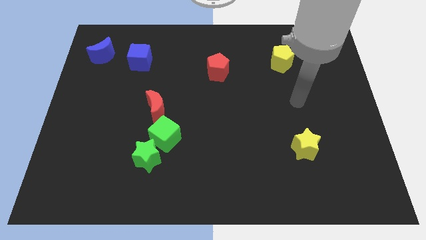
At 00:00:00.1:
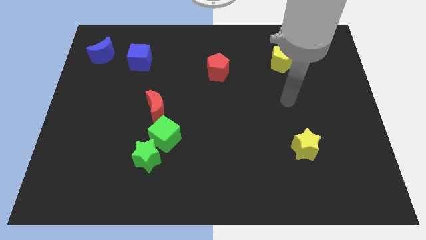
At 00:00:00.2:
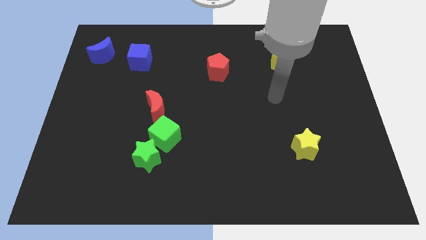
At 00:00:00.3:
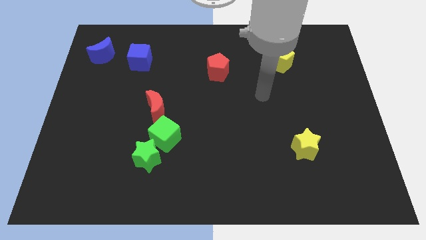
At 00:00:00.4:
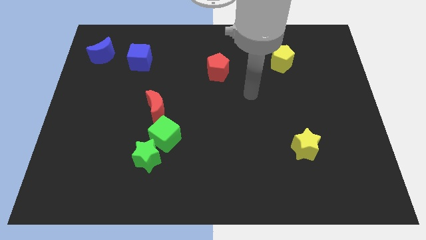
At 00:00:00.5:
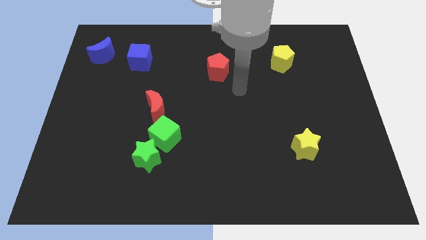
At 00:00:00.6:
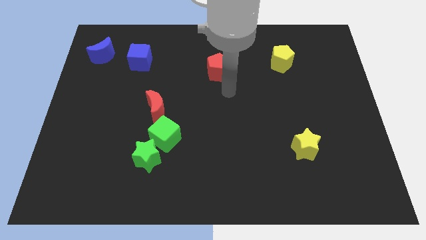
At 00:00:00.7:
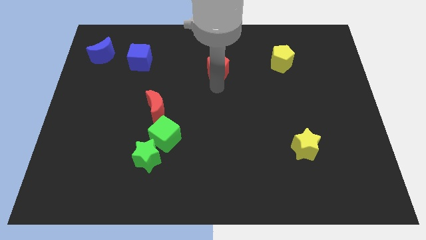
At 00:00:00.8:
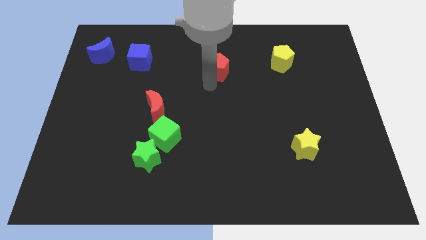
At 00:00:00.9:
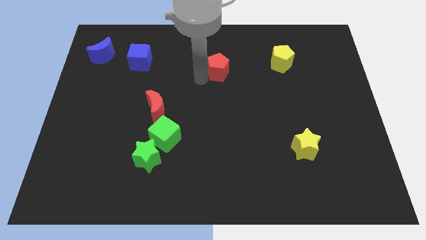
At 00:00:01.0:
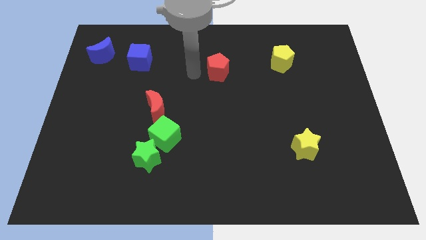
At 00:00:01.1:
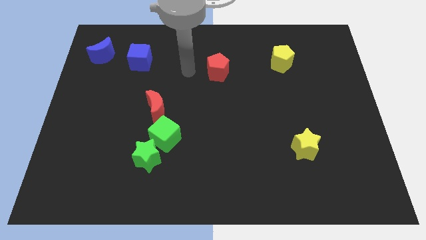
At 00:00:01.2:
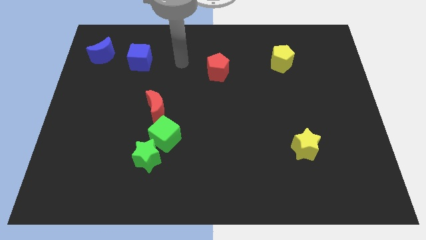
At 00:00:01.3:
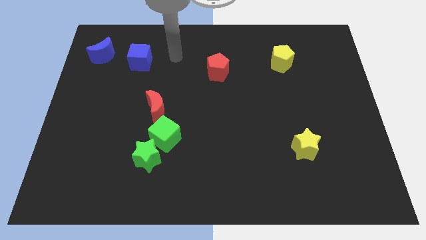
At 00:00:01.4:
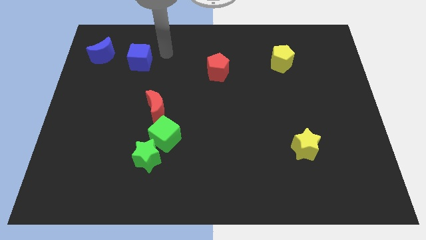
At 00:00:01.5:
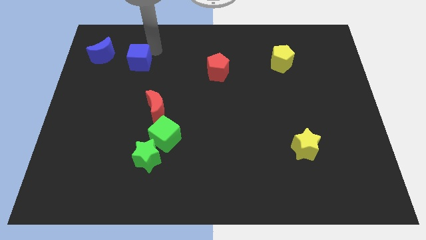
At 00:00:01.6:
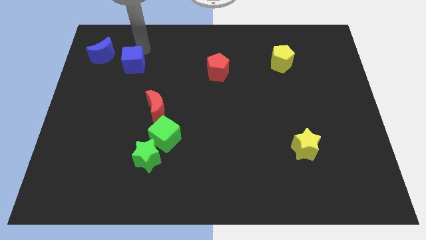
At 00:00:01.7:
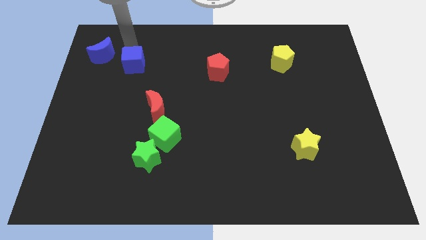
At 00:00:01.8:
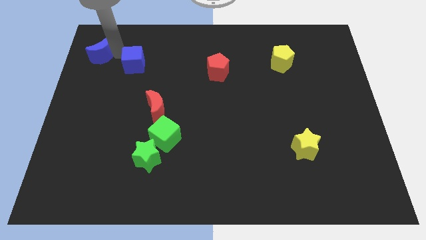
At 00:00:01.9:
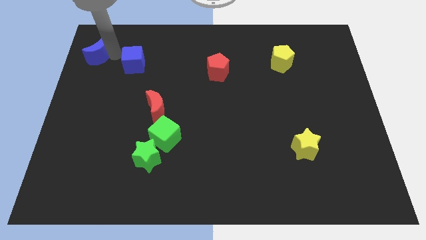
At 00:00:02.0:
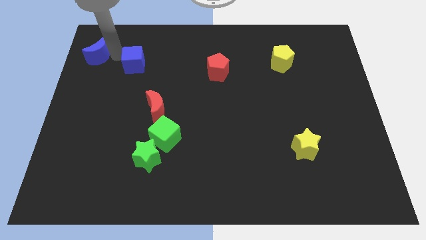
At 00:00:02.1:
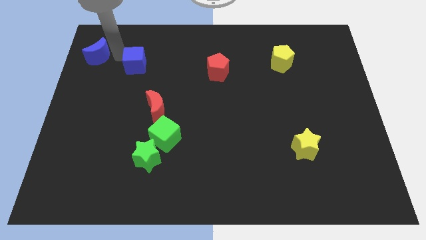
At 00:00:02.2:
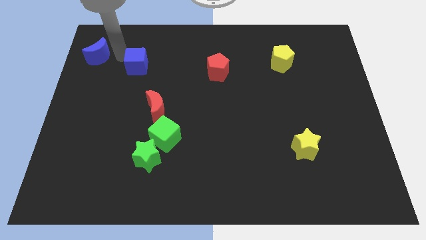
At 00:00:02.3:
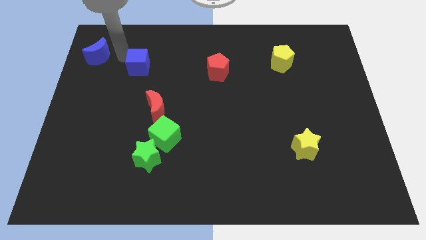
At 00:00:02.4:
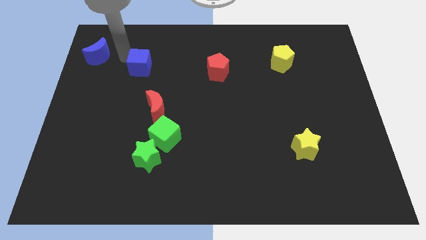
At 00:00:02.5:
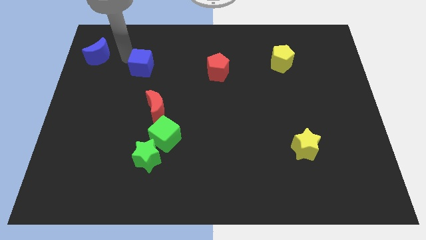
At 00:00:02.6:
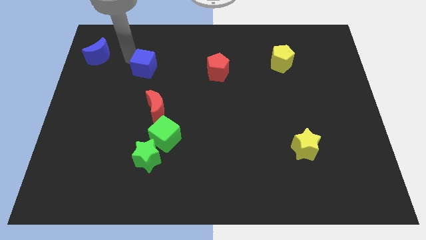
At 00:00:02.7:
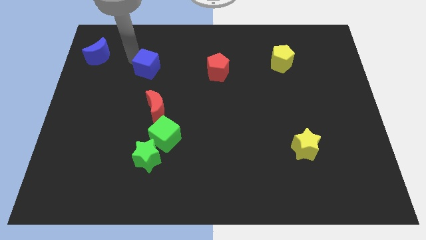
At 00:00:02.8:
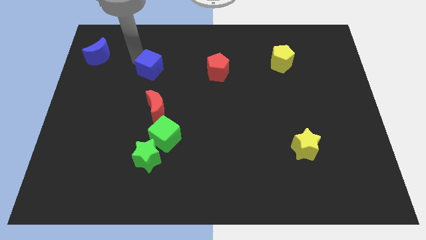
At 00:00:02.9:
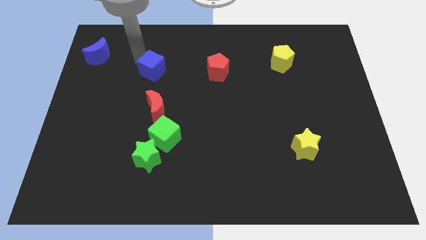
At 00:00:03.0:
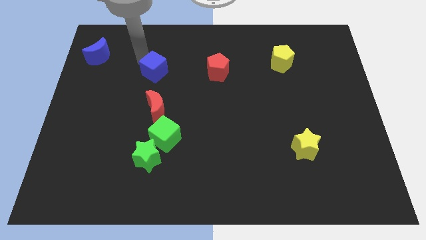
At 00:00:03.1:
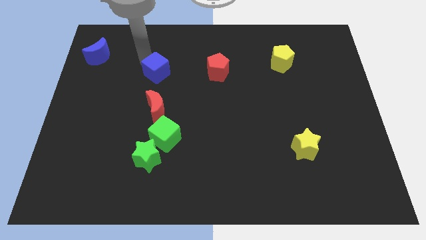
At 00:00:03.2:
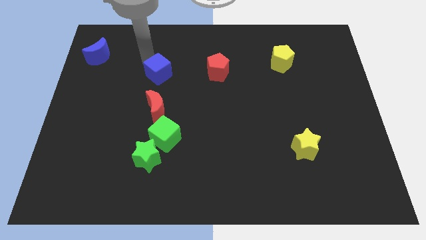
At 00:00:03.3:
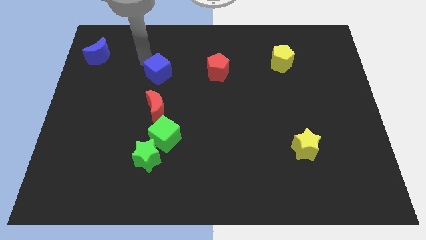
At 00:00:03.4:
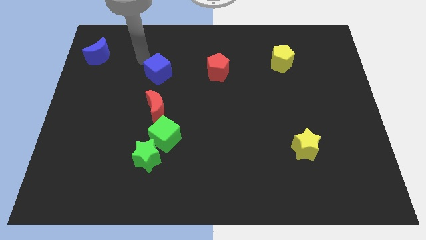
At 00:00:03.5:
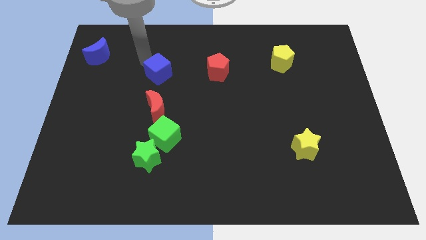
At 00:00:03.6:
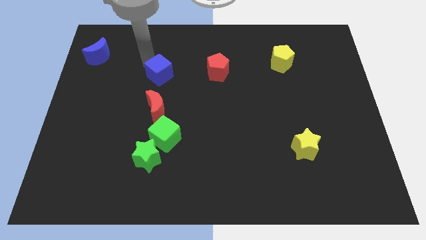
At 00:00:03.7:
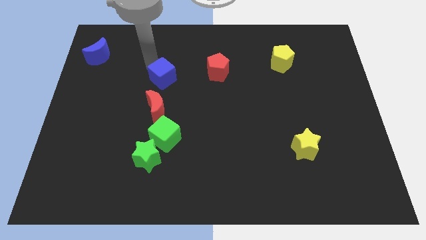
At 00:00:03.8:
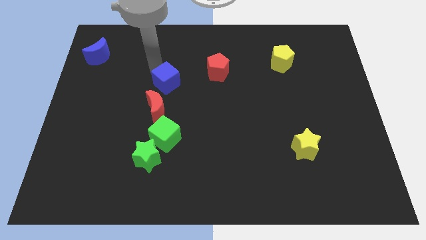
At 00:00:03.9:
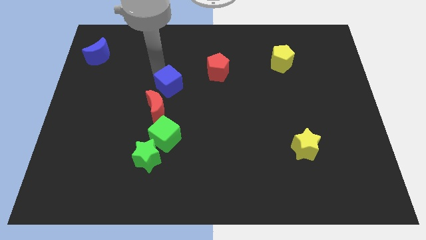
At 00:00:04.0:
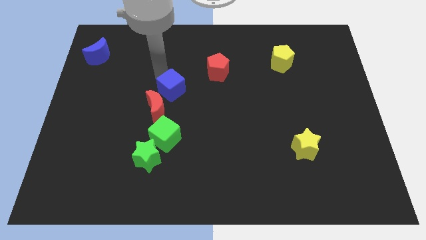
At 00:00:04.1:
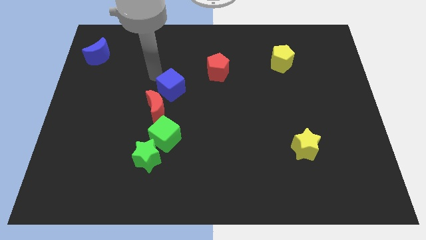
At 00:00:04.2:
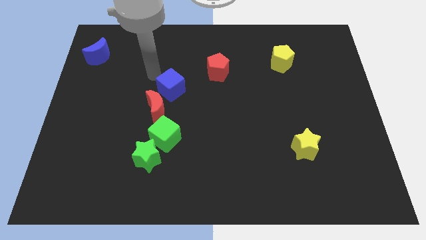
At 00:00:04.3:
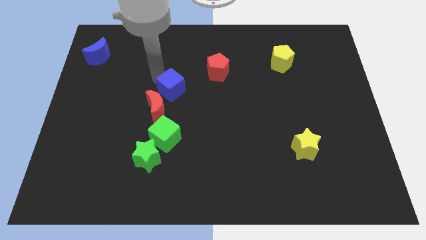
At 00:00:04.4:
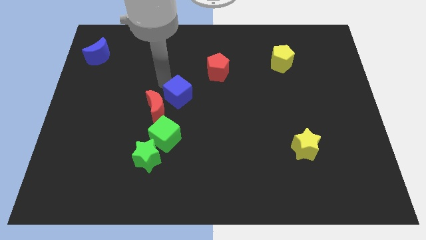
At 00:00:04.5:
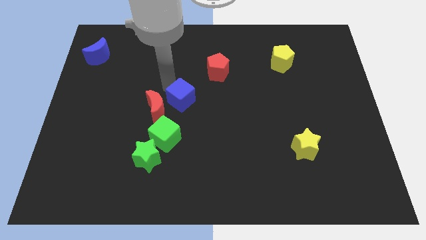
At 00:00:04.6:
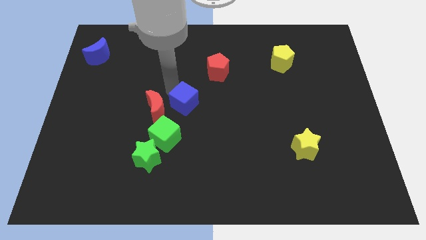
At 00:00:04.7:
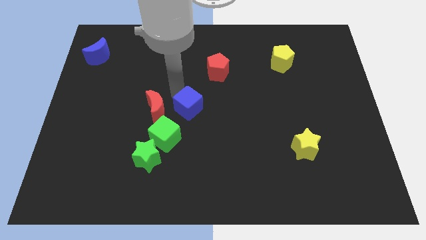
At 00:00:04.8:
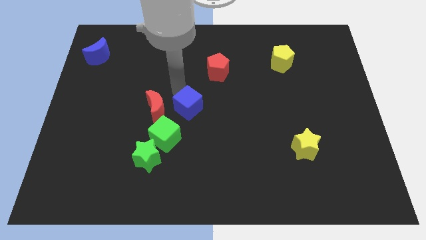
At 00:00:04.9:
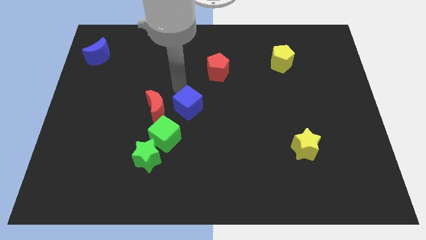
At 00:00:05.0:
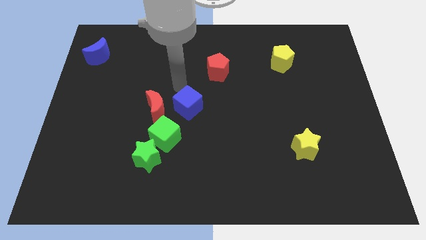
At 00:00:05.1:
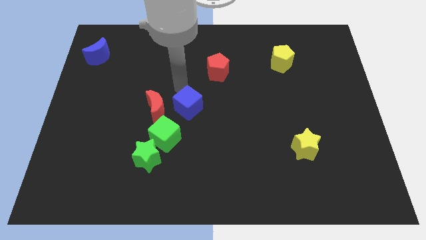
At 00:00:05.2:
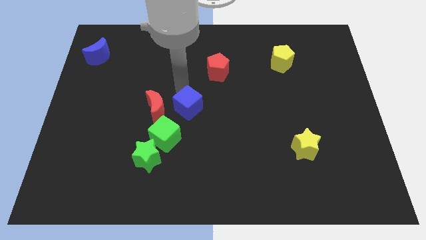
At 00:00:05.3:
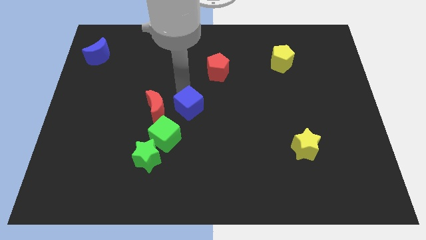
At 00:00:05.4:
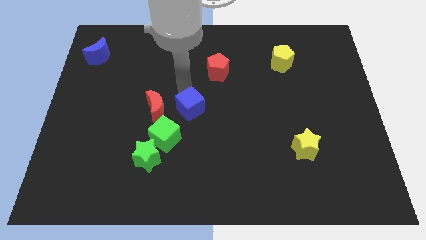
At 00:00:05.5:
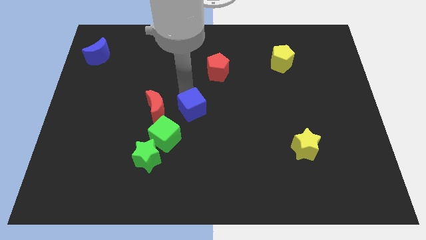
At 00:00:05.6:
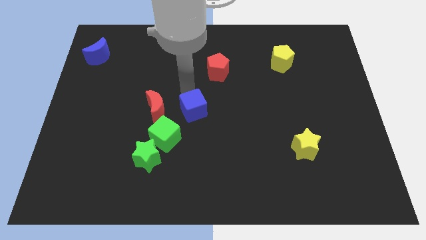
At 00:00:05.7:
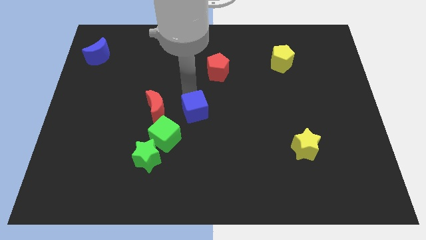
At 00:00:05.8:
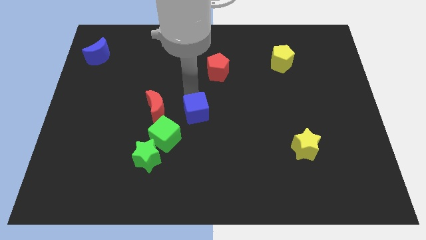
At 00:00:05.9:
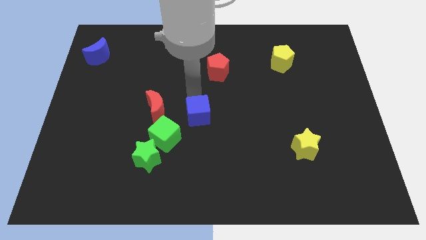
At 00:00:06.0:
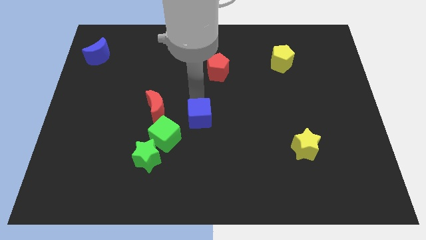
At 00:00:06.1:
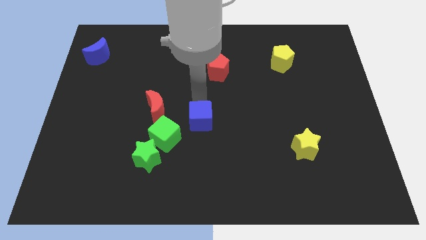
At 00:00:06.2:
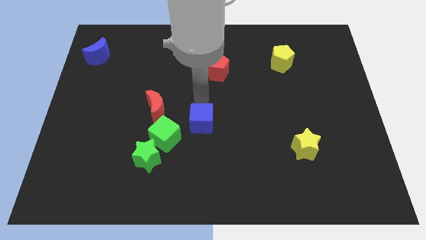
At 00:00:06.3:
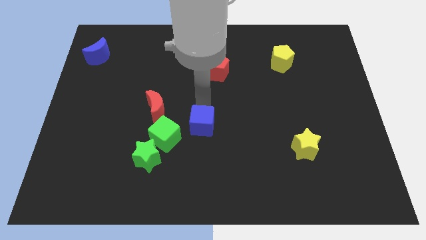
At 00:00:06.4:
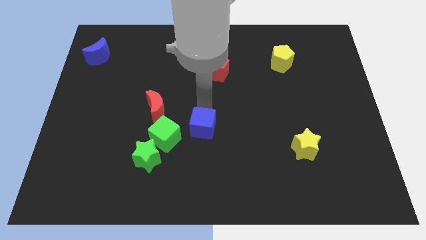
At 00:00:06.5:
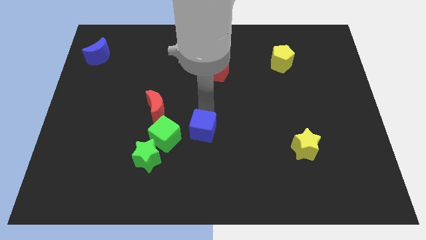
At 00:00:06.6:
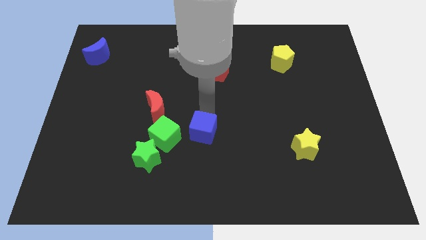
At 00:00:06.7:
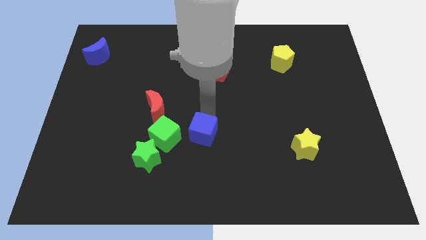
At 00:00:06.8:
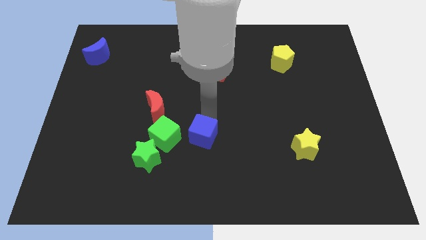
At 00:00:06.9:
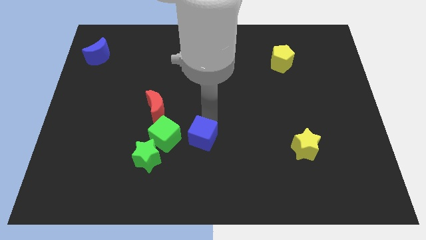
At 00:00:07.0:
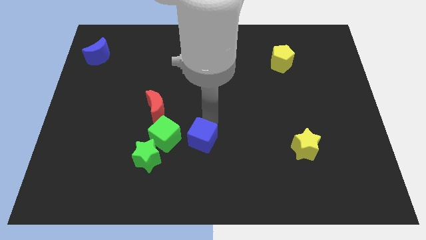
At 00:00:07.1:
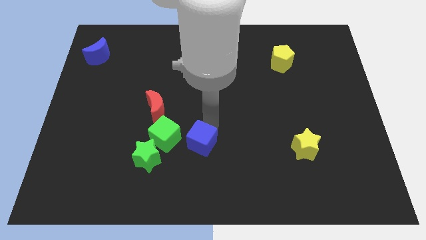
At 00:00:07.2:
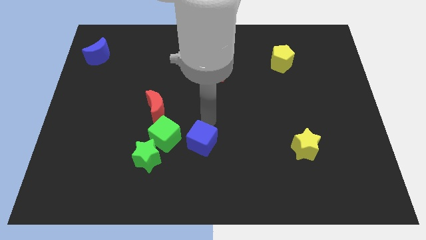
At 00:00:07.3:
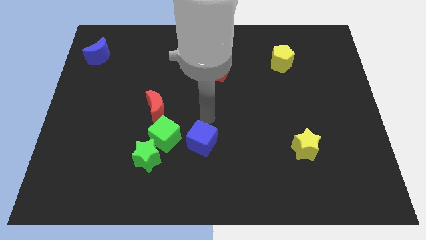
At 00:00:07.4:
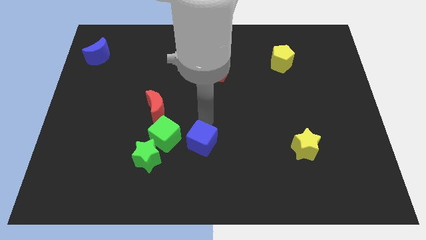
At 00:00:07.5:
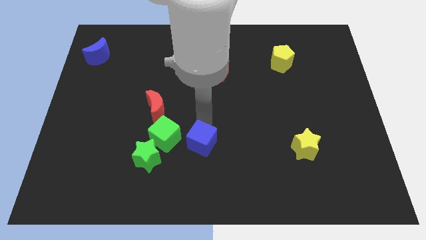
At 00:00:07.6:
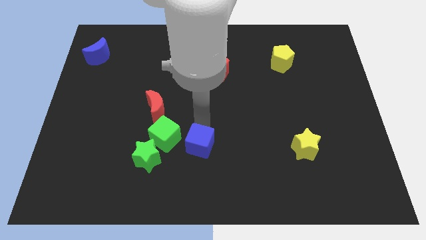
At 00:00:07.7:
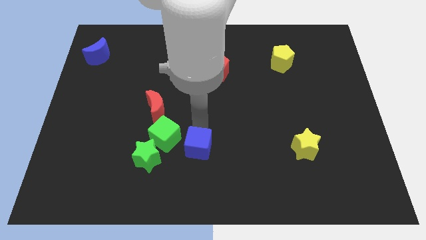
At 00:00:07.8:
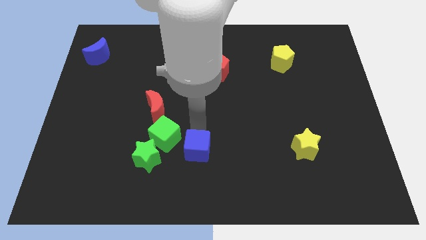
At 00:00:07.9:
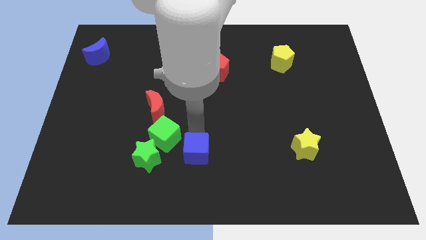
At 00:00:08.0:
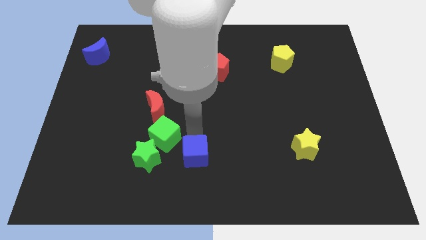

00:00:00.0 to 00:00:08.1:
put the blue cube to the bottom side
